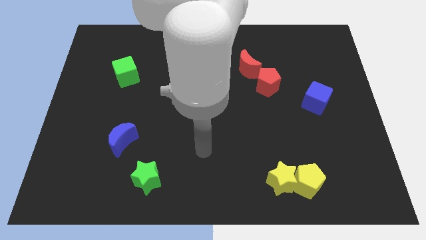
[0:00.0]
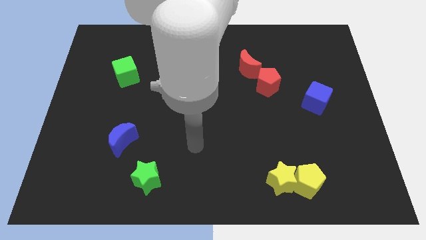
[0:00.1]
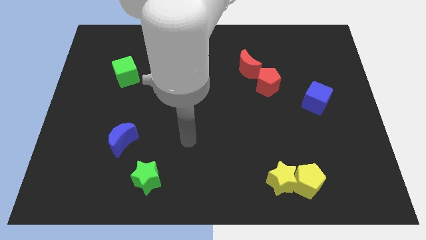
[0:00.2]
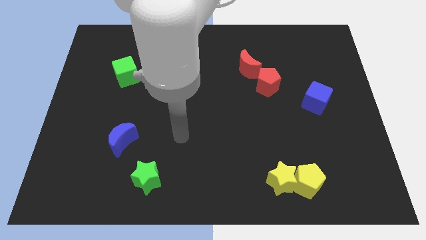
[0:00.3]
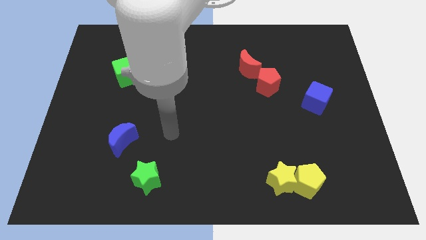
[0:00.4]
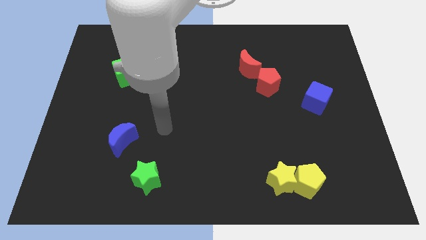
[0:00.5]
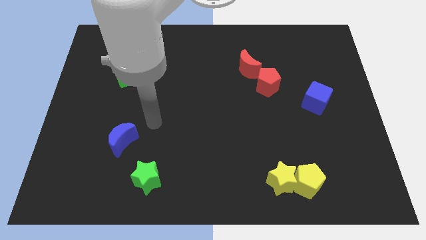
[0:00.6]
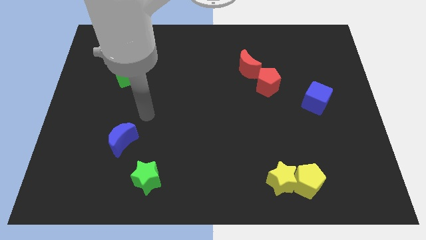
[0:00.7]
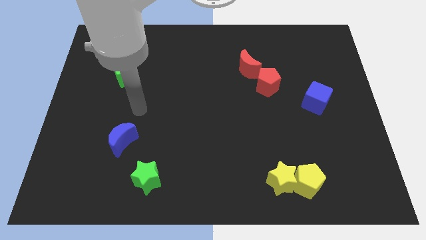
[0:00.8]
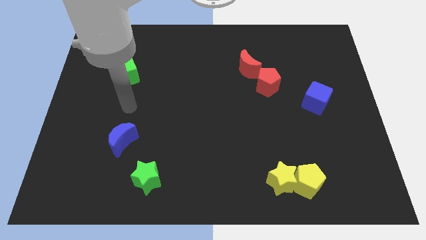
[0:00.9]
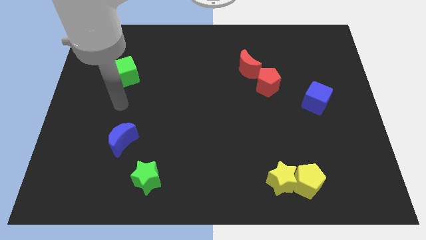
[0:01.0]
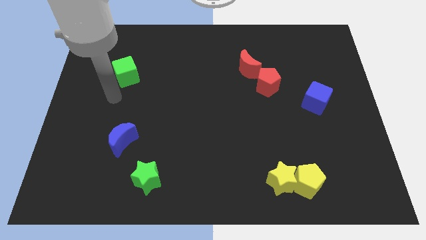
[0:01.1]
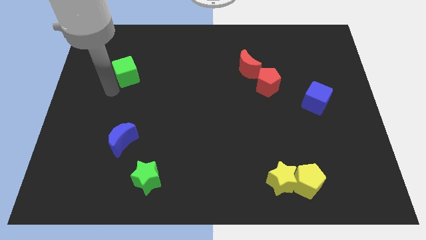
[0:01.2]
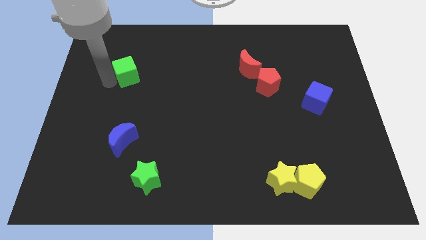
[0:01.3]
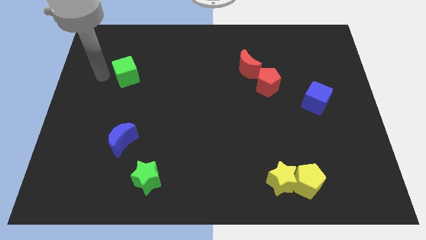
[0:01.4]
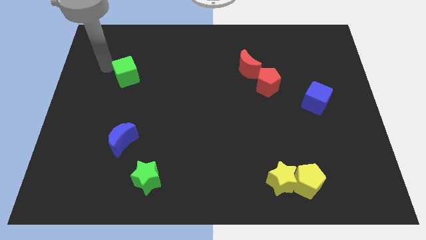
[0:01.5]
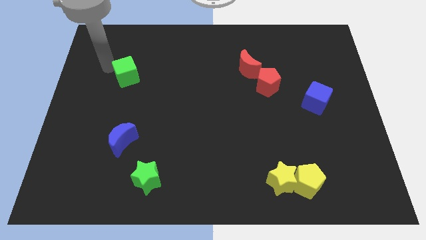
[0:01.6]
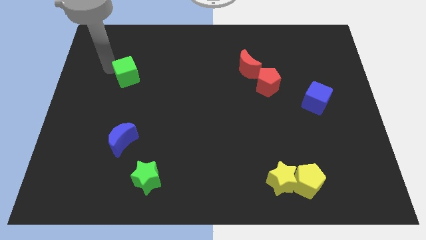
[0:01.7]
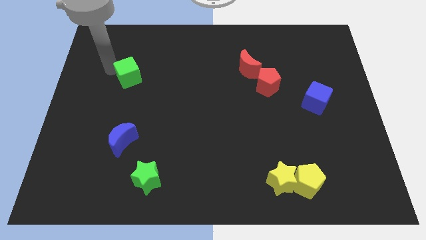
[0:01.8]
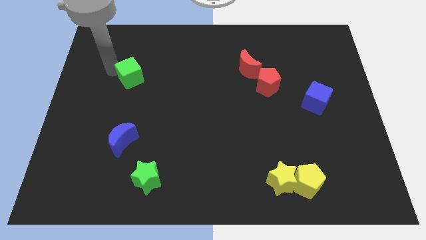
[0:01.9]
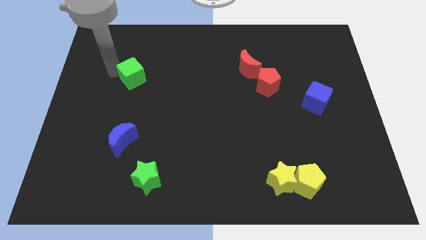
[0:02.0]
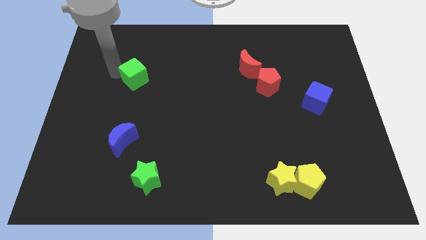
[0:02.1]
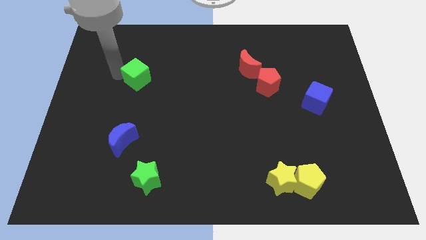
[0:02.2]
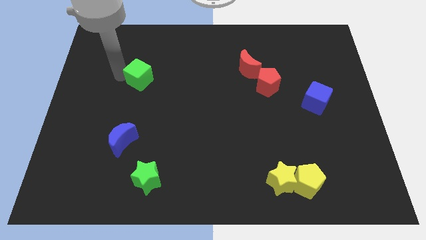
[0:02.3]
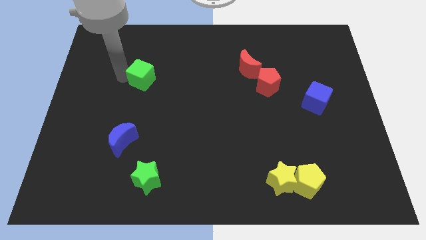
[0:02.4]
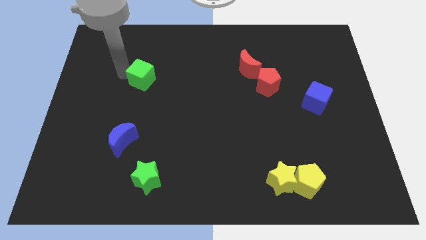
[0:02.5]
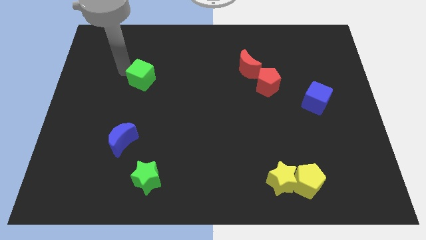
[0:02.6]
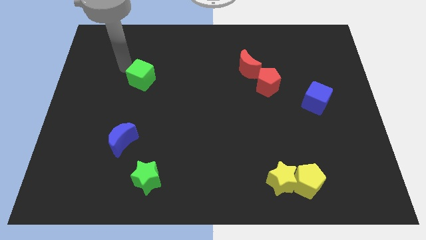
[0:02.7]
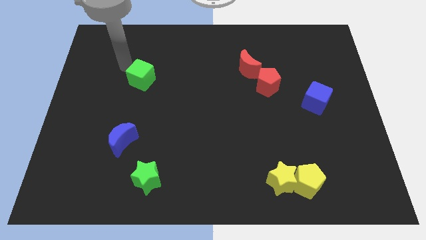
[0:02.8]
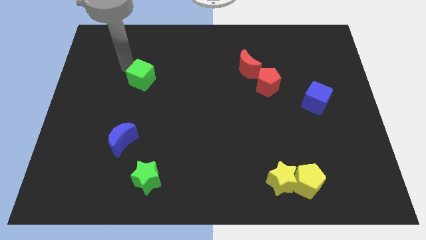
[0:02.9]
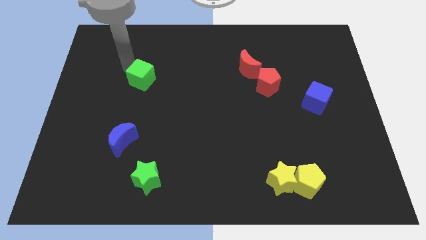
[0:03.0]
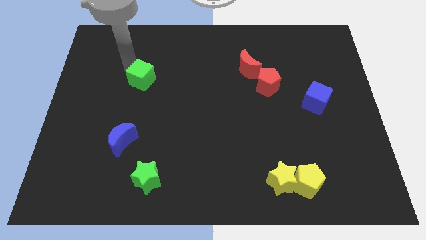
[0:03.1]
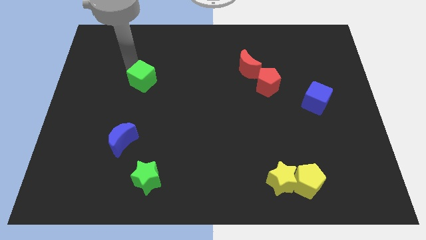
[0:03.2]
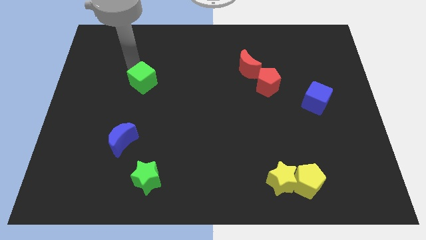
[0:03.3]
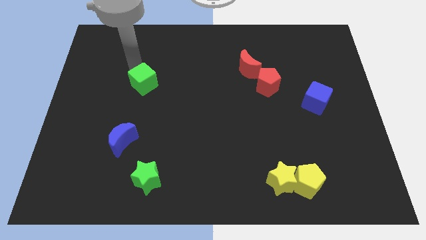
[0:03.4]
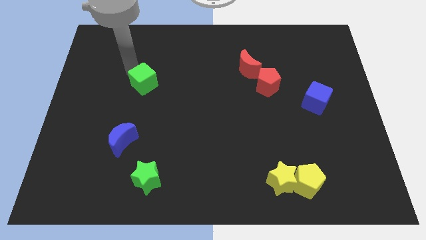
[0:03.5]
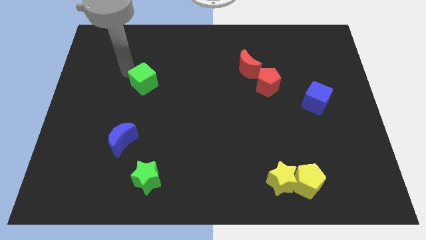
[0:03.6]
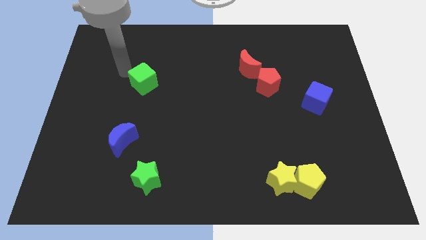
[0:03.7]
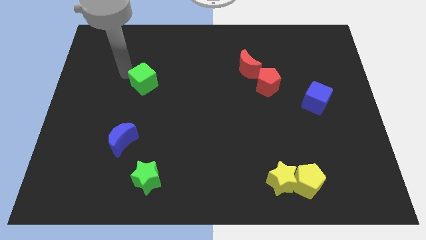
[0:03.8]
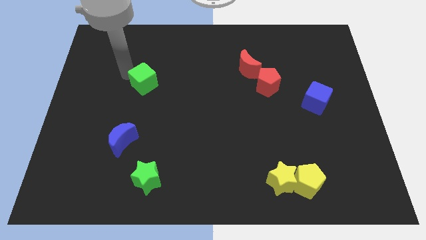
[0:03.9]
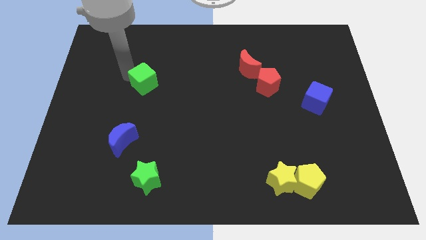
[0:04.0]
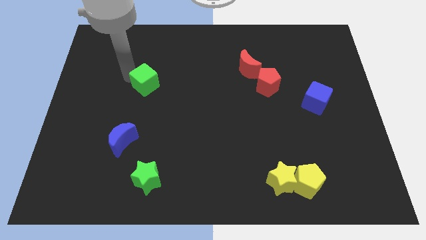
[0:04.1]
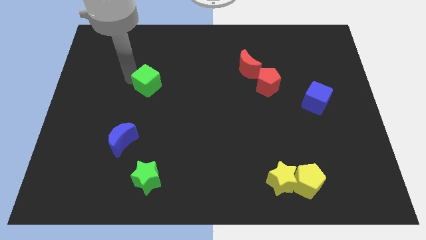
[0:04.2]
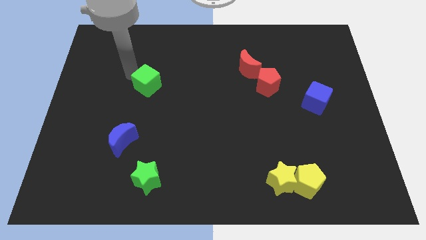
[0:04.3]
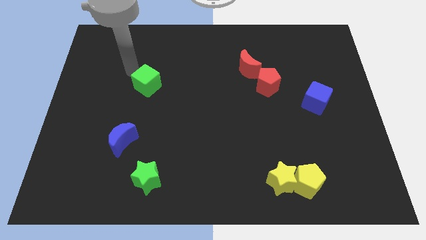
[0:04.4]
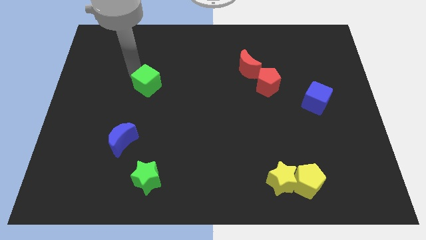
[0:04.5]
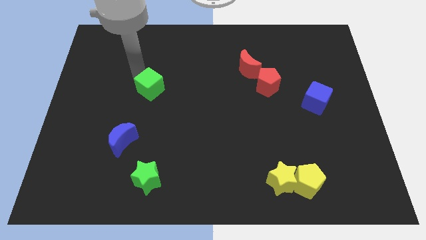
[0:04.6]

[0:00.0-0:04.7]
slightly push the green cube downwards and right diagonally

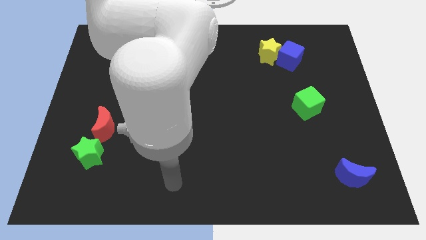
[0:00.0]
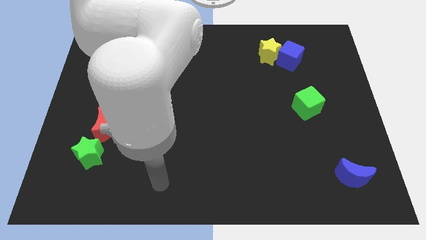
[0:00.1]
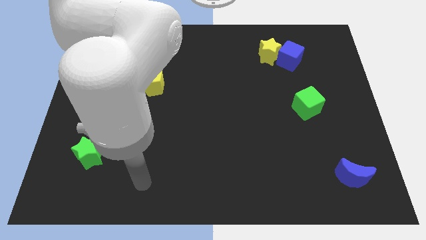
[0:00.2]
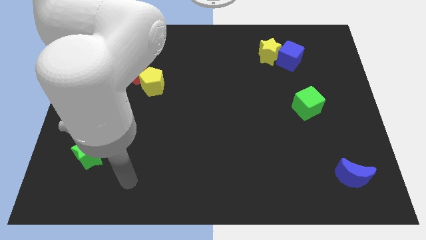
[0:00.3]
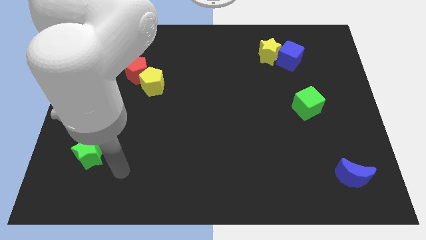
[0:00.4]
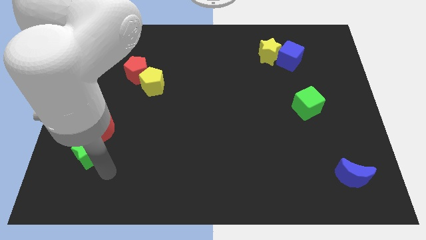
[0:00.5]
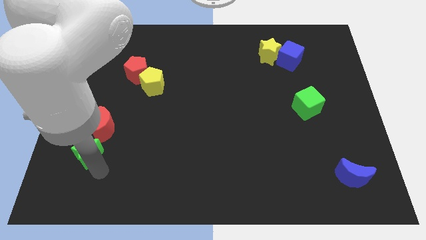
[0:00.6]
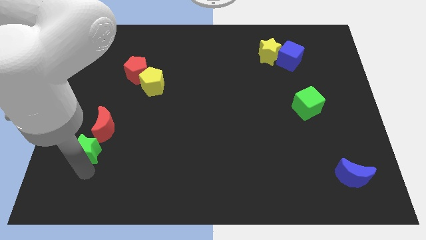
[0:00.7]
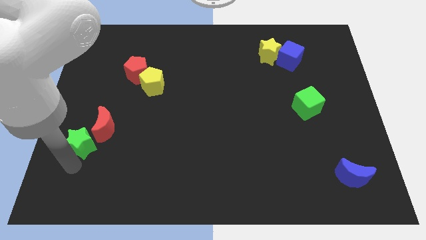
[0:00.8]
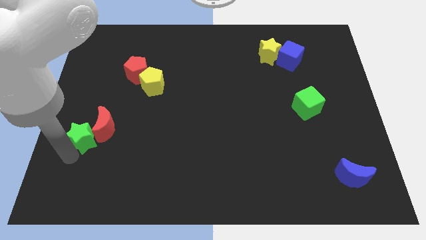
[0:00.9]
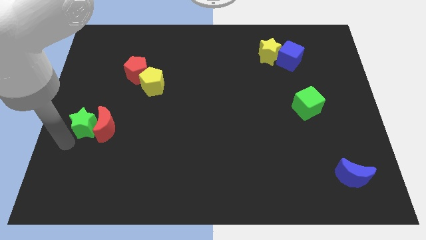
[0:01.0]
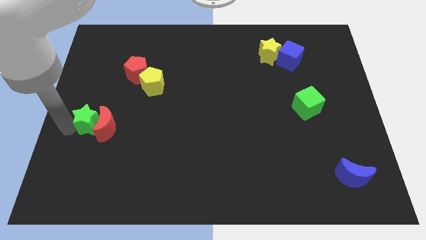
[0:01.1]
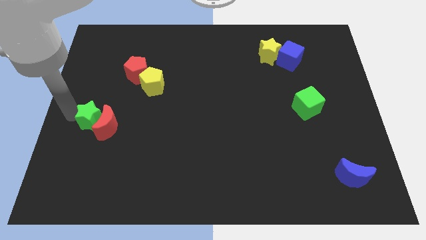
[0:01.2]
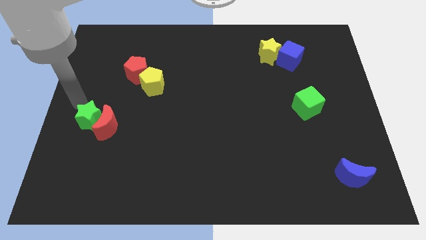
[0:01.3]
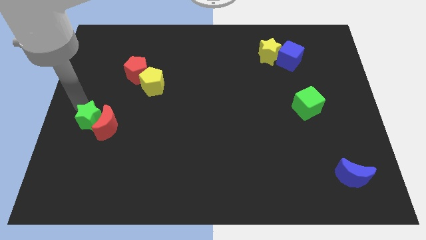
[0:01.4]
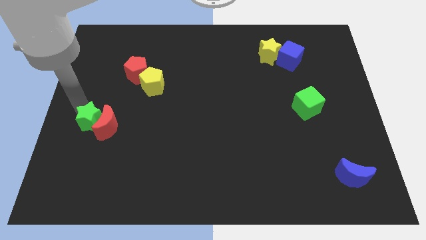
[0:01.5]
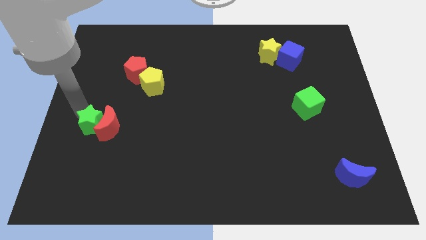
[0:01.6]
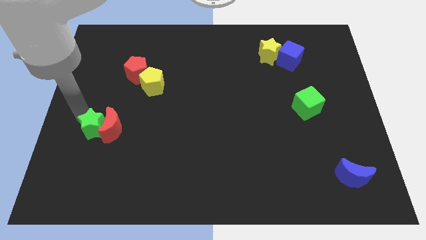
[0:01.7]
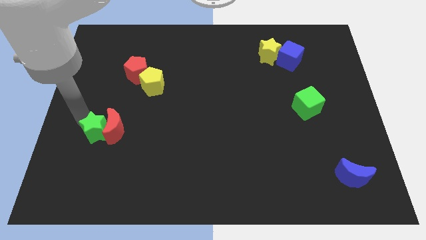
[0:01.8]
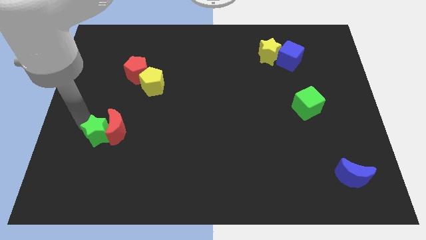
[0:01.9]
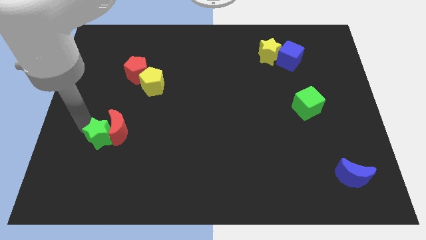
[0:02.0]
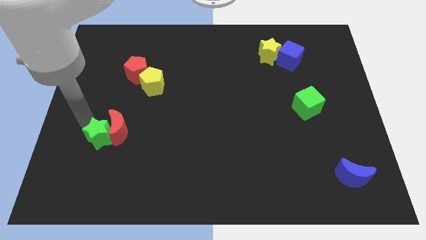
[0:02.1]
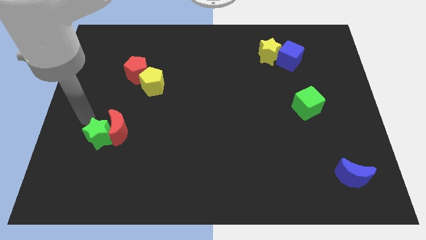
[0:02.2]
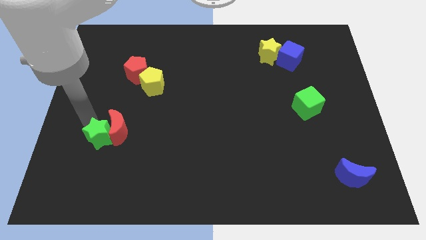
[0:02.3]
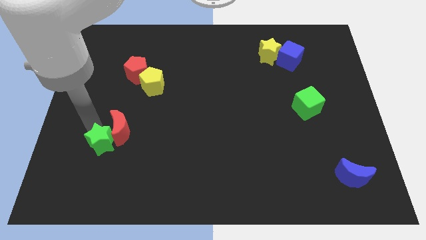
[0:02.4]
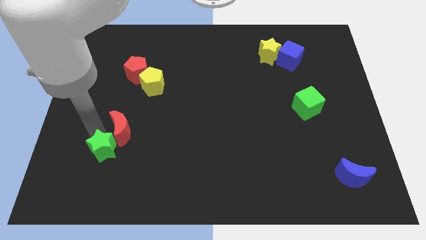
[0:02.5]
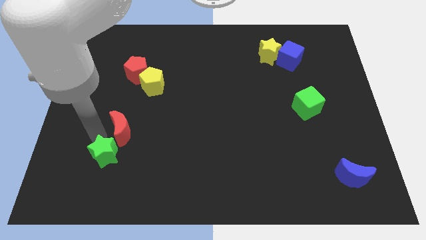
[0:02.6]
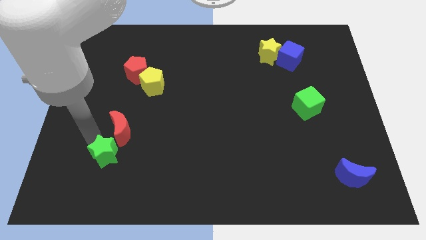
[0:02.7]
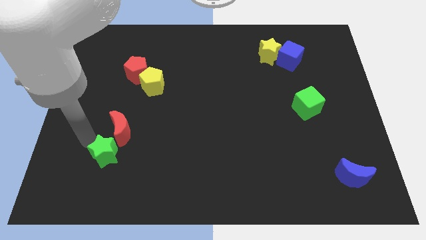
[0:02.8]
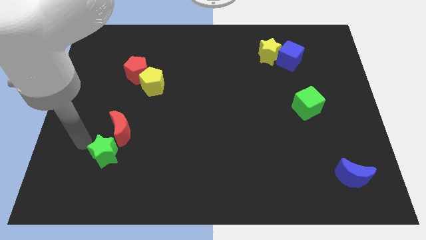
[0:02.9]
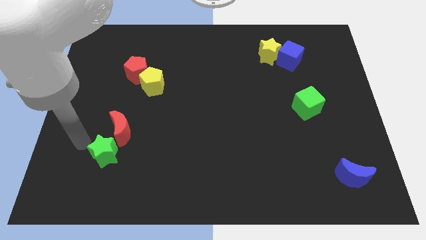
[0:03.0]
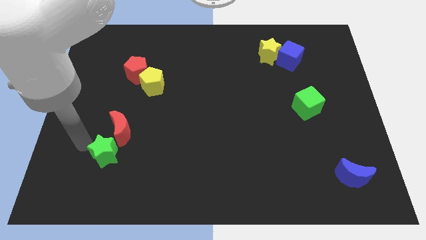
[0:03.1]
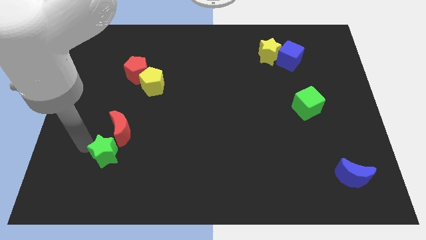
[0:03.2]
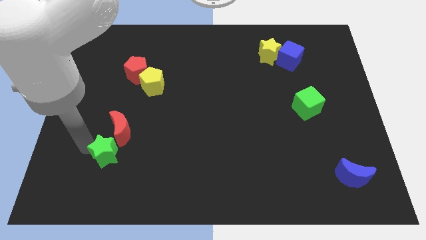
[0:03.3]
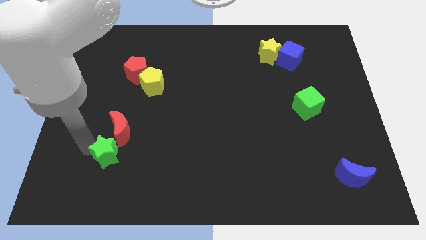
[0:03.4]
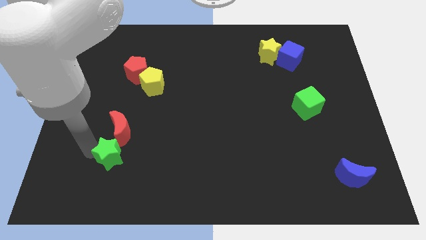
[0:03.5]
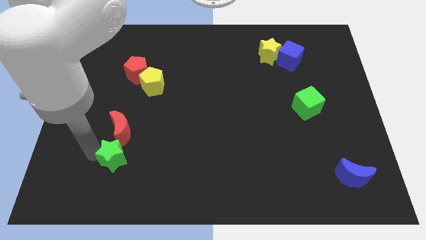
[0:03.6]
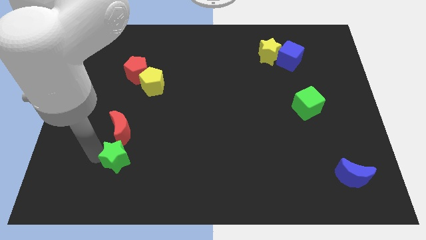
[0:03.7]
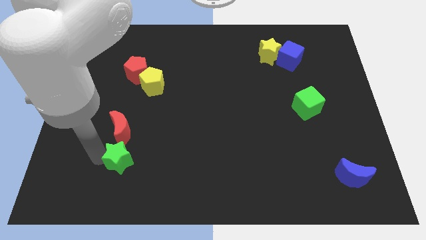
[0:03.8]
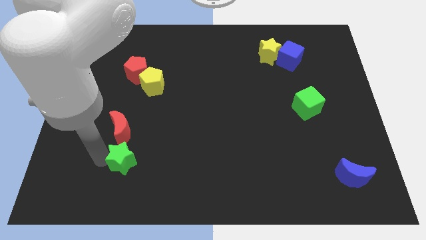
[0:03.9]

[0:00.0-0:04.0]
push the green star right a little
